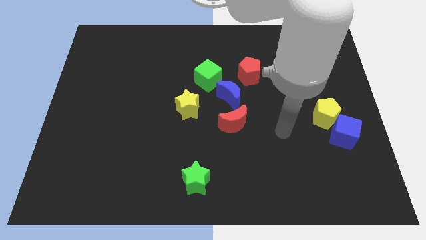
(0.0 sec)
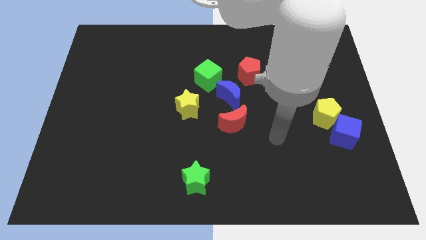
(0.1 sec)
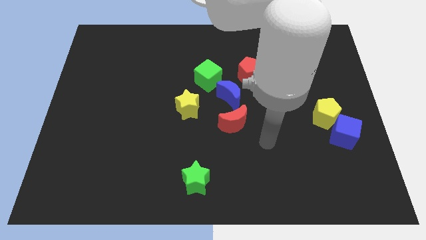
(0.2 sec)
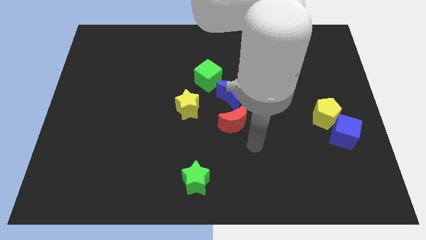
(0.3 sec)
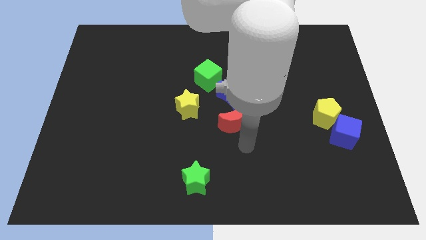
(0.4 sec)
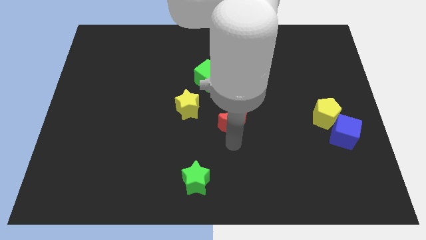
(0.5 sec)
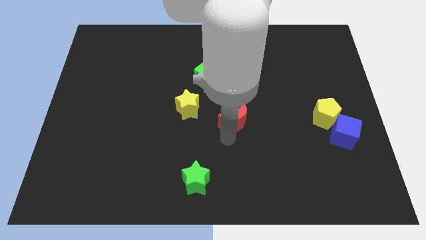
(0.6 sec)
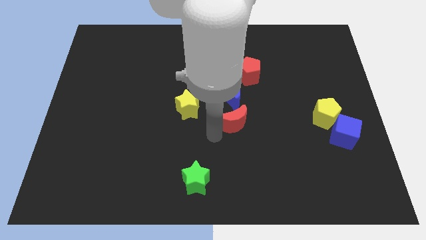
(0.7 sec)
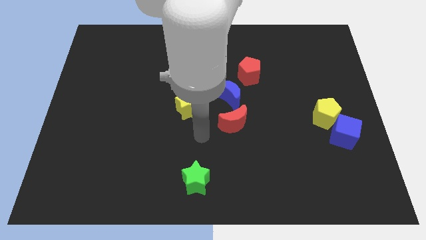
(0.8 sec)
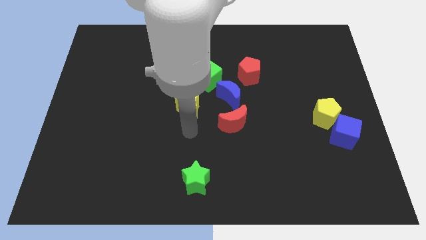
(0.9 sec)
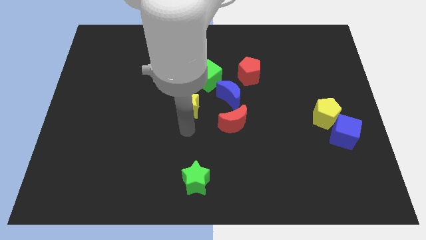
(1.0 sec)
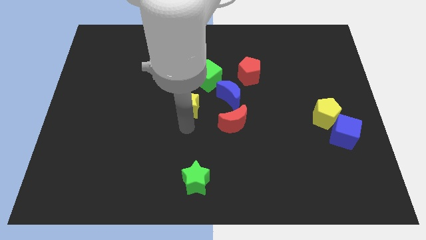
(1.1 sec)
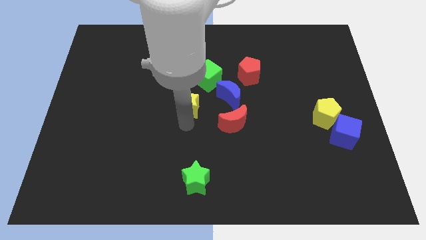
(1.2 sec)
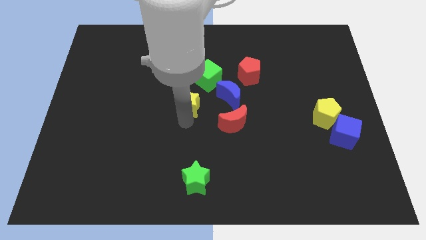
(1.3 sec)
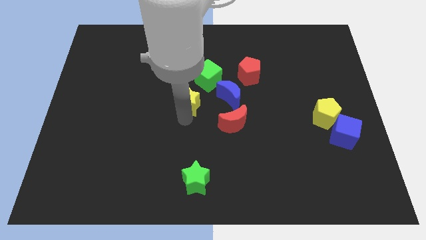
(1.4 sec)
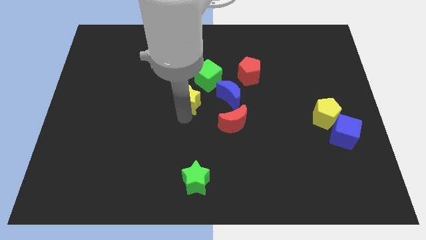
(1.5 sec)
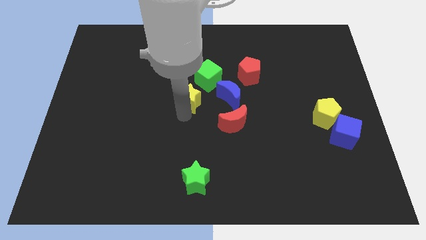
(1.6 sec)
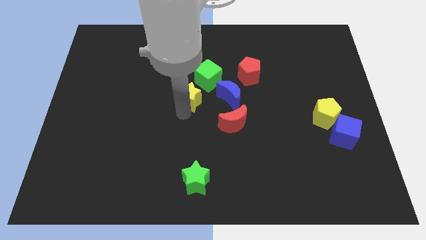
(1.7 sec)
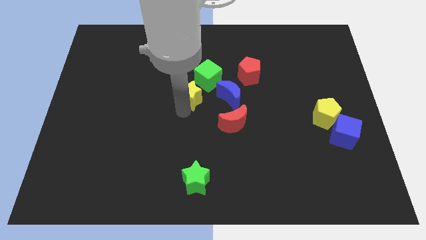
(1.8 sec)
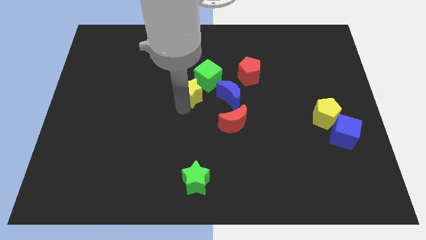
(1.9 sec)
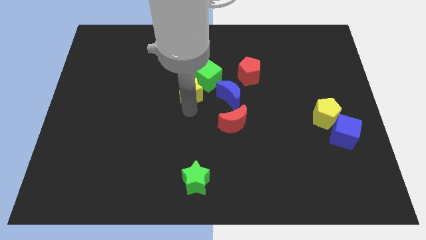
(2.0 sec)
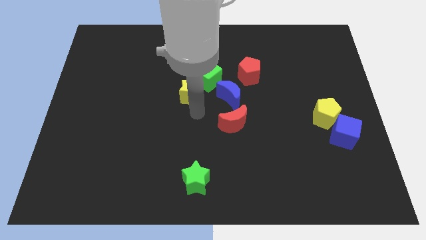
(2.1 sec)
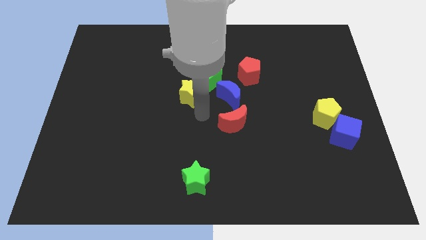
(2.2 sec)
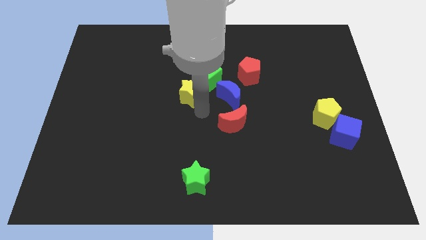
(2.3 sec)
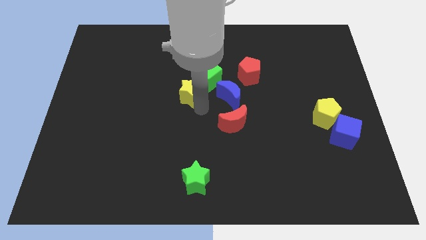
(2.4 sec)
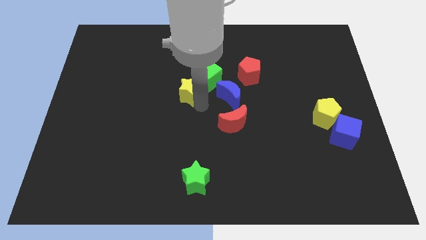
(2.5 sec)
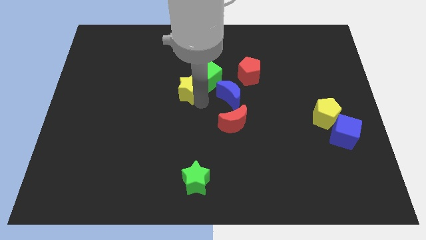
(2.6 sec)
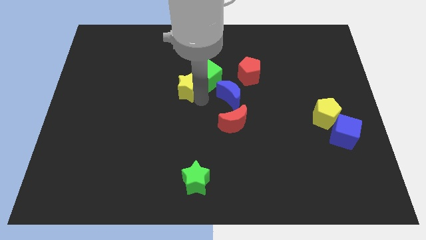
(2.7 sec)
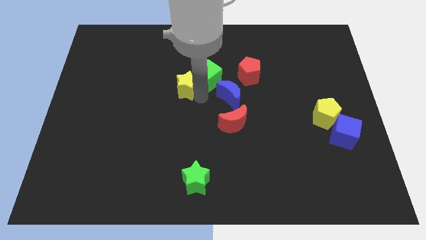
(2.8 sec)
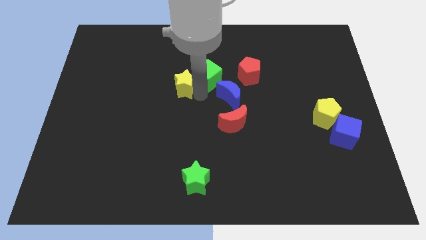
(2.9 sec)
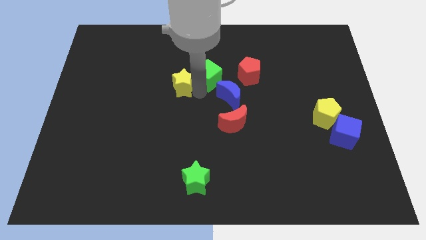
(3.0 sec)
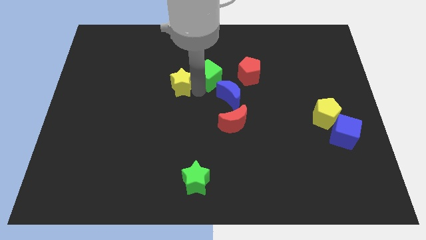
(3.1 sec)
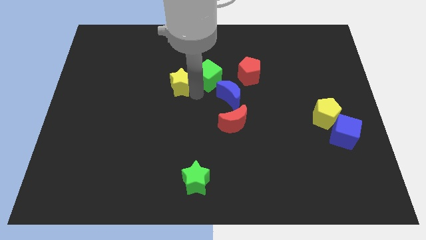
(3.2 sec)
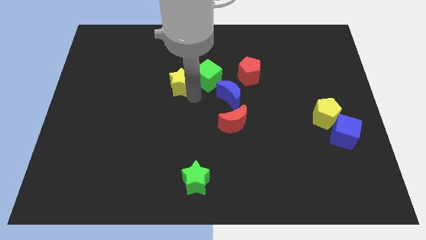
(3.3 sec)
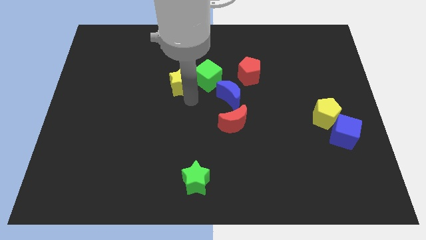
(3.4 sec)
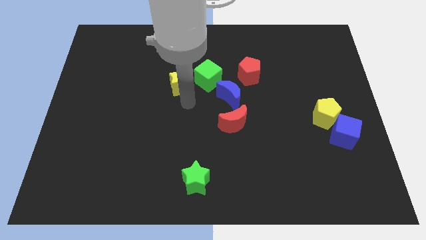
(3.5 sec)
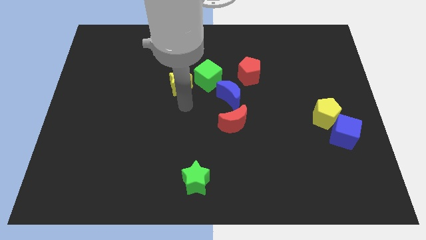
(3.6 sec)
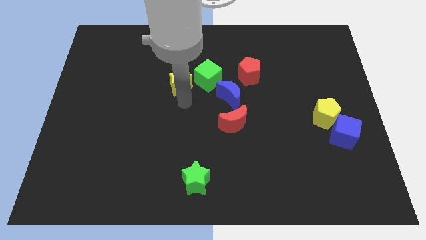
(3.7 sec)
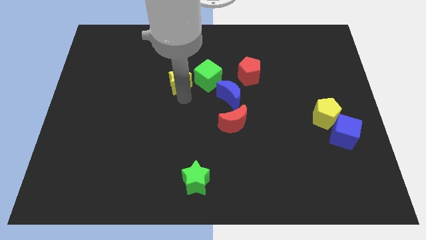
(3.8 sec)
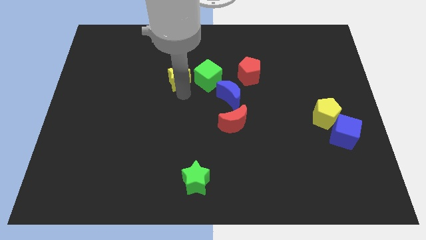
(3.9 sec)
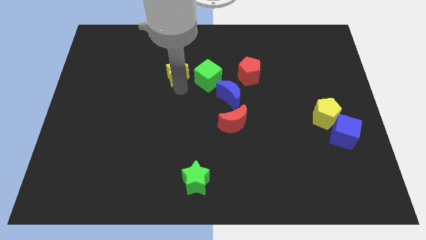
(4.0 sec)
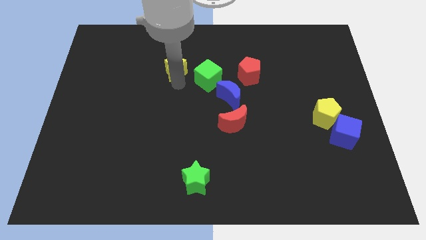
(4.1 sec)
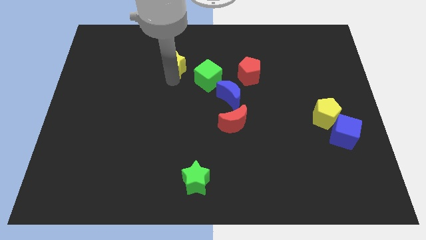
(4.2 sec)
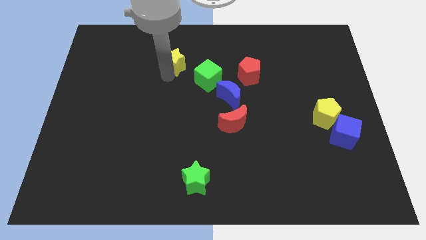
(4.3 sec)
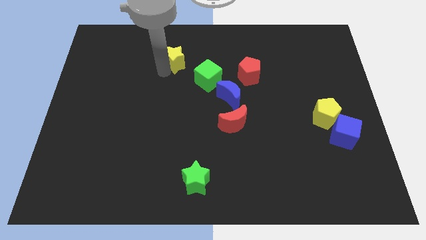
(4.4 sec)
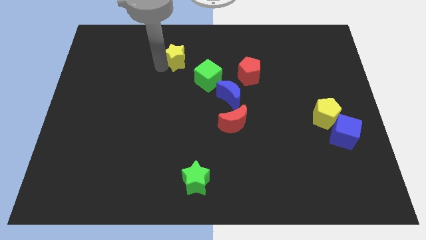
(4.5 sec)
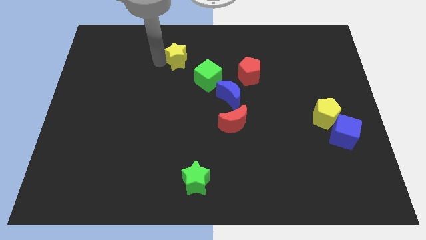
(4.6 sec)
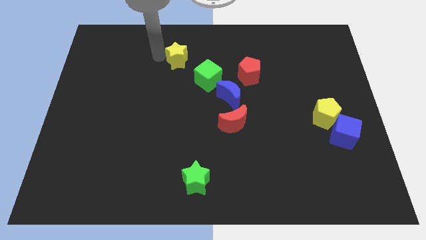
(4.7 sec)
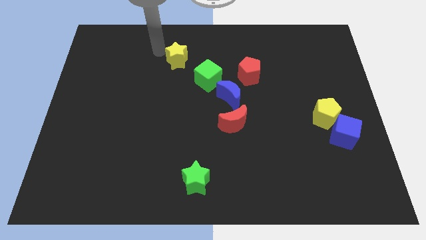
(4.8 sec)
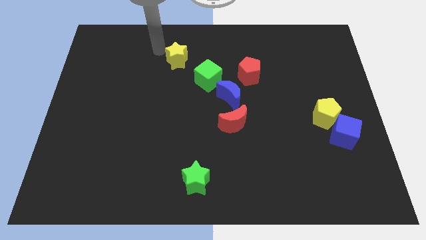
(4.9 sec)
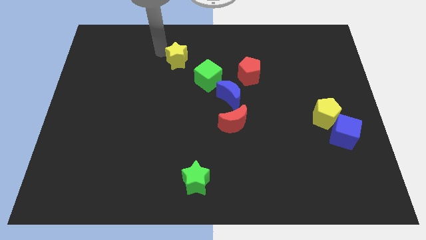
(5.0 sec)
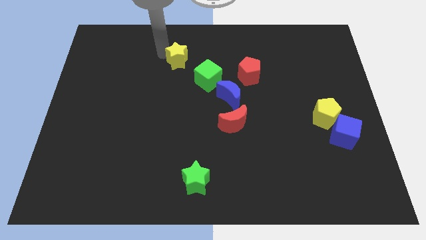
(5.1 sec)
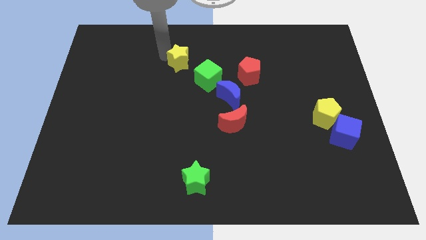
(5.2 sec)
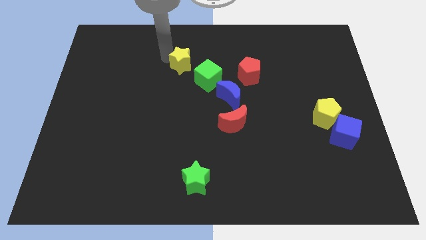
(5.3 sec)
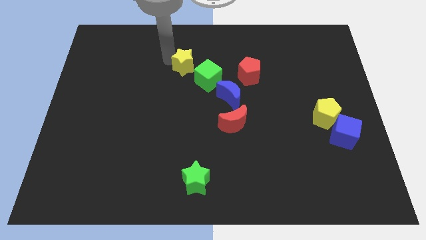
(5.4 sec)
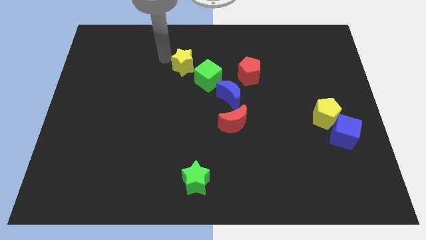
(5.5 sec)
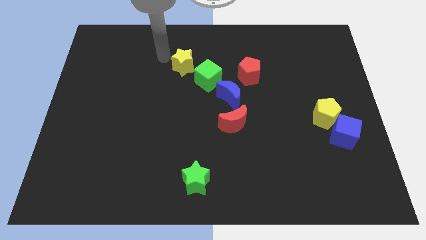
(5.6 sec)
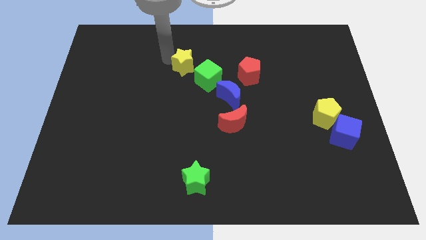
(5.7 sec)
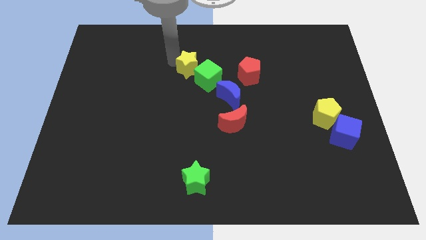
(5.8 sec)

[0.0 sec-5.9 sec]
push the yellow star to the left side of the red pentagon

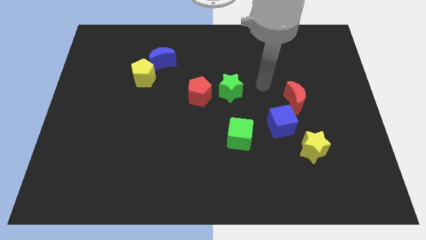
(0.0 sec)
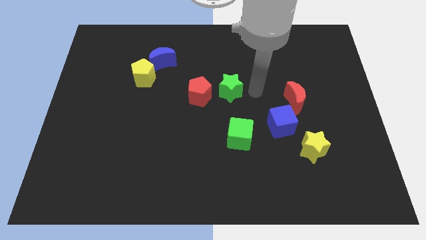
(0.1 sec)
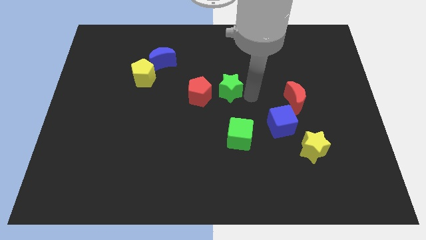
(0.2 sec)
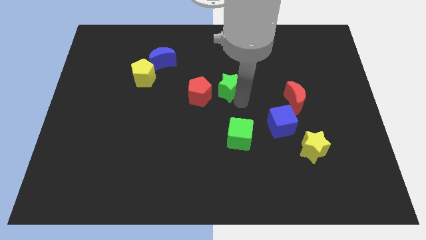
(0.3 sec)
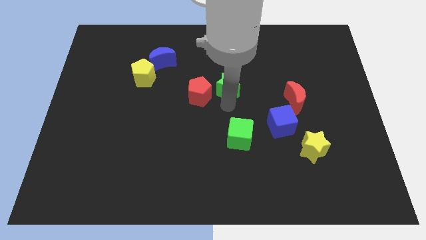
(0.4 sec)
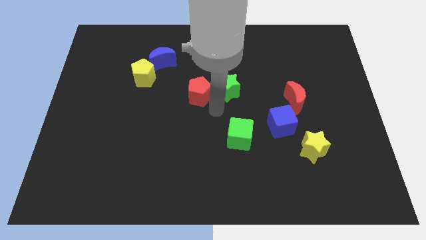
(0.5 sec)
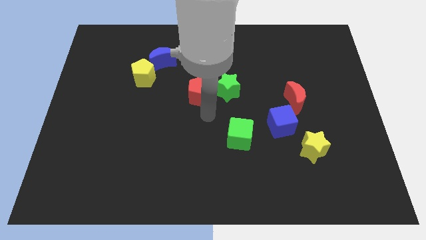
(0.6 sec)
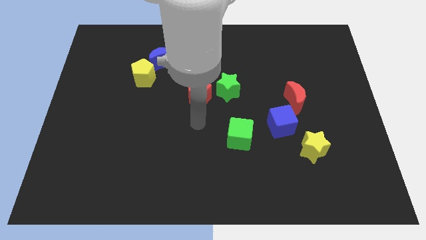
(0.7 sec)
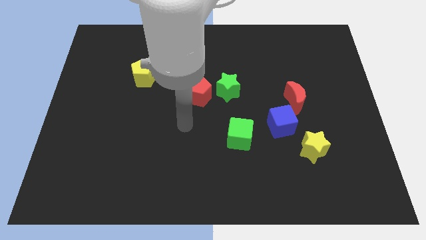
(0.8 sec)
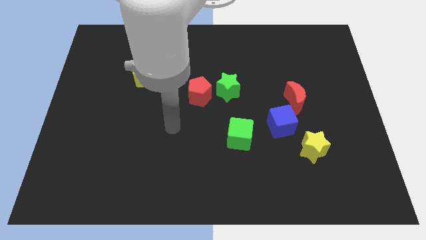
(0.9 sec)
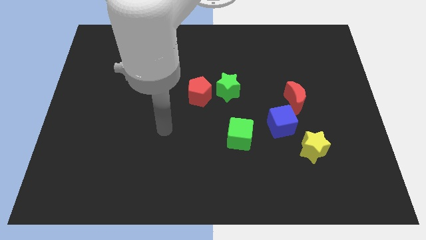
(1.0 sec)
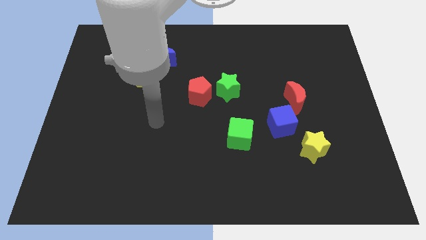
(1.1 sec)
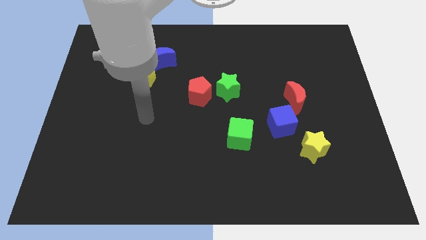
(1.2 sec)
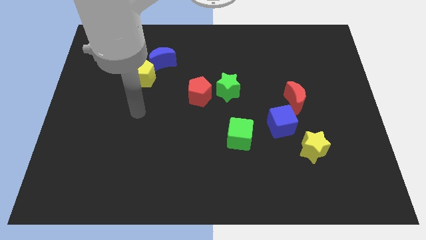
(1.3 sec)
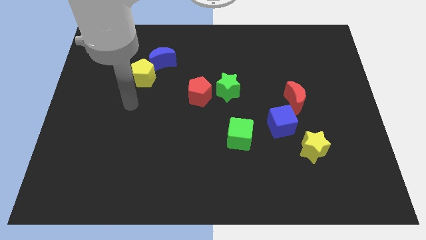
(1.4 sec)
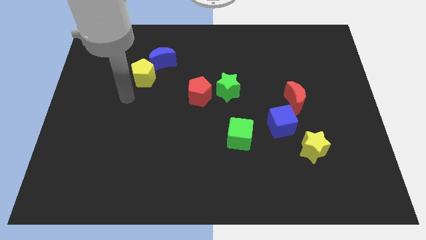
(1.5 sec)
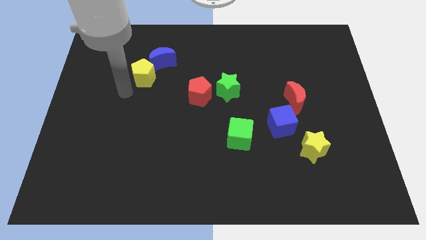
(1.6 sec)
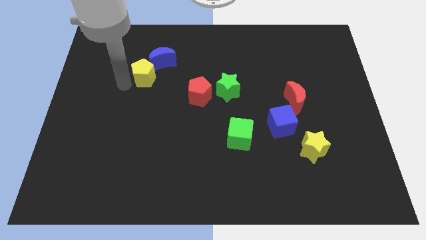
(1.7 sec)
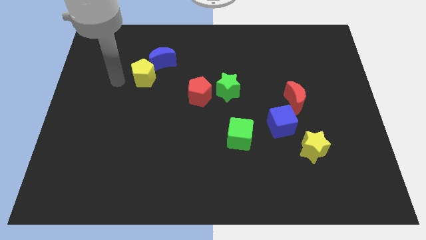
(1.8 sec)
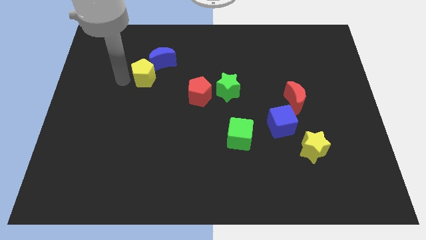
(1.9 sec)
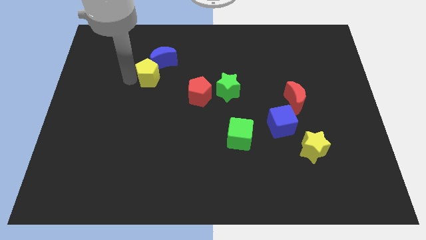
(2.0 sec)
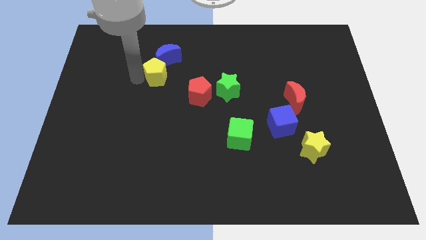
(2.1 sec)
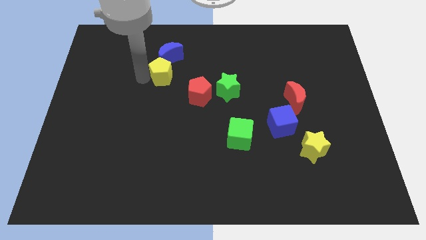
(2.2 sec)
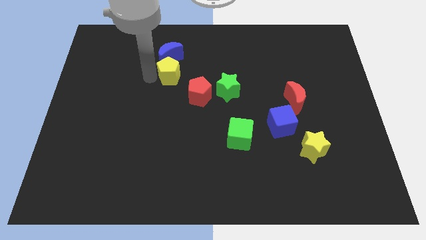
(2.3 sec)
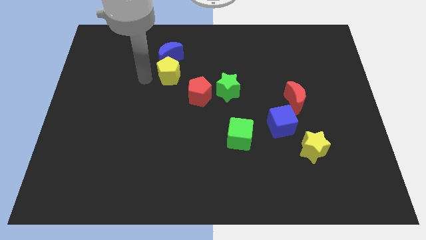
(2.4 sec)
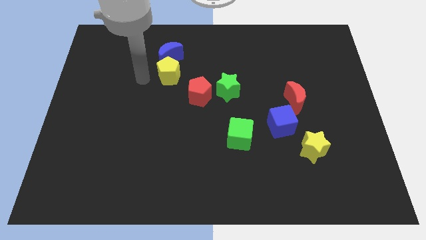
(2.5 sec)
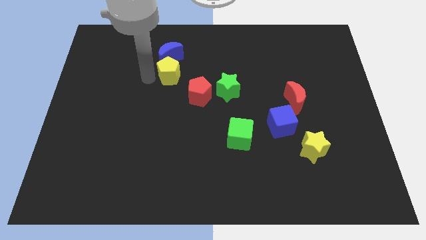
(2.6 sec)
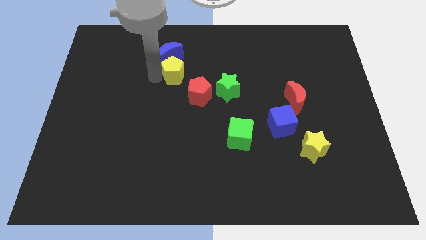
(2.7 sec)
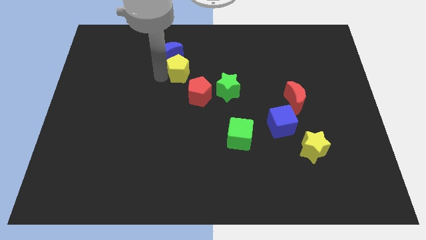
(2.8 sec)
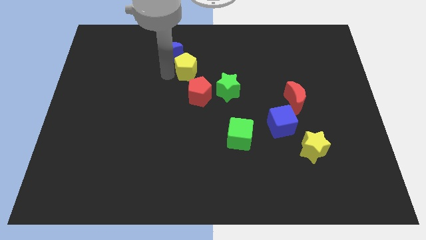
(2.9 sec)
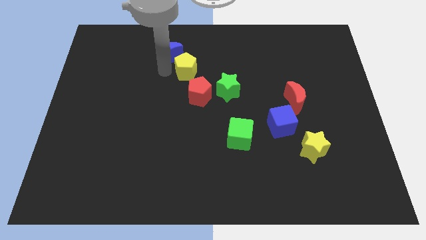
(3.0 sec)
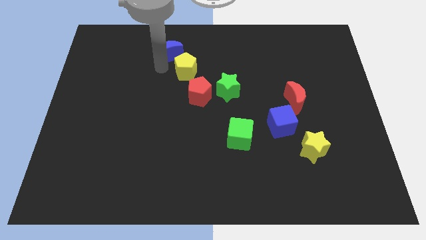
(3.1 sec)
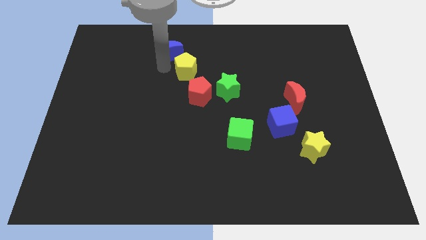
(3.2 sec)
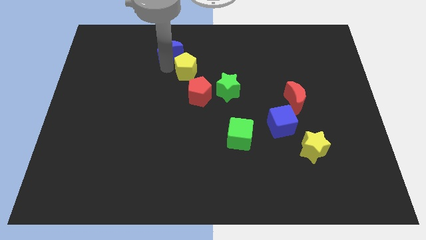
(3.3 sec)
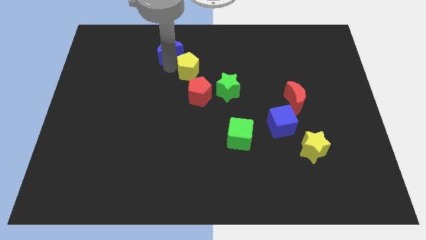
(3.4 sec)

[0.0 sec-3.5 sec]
put the yellow pentagon to the top left side of the green star
